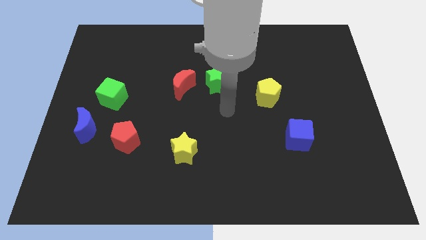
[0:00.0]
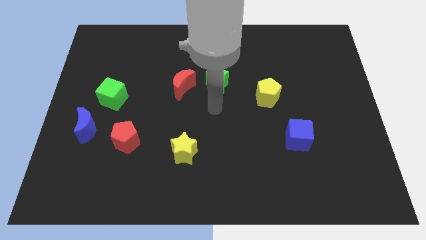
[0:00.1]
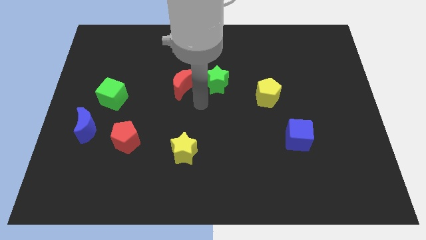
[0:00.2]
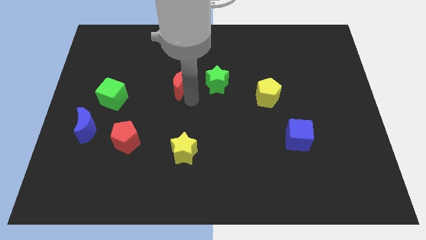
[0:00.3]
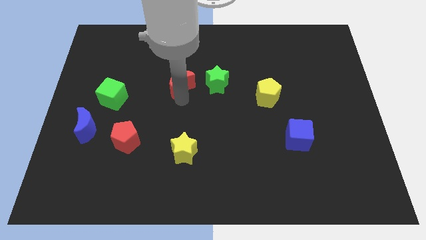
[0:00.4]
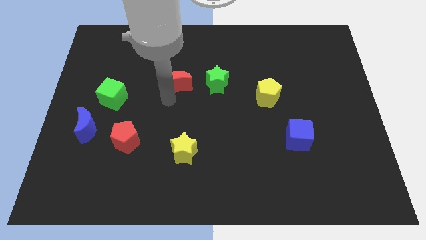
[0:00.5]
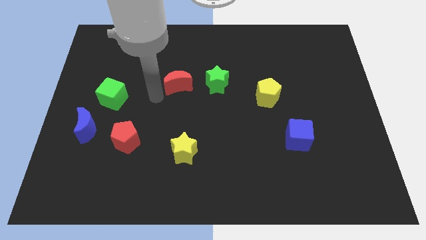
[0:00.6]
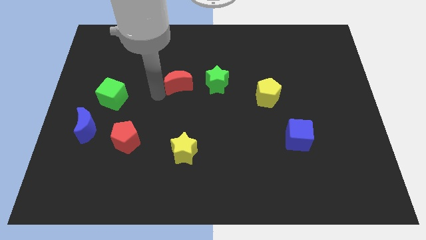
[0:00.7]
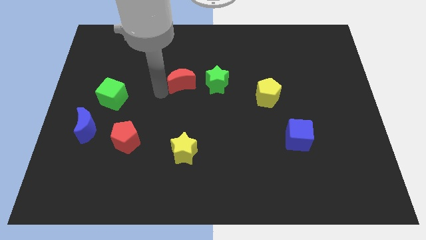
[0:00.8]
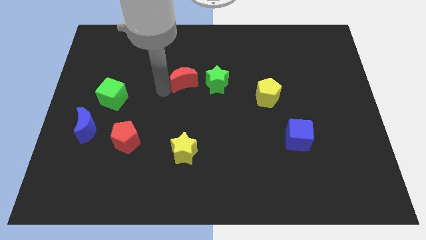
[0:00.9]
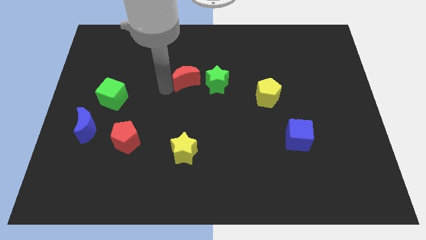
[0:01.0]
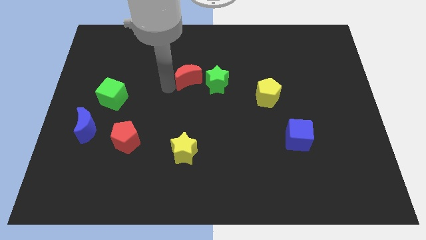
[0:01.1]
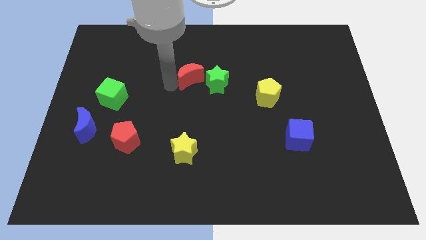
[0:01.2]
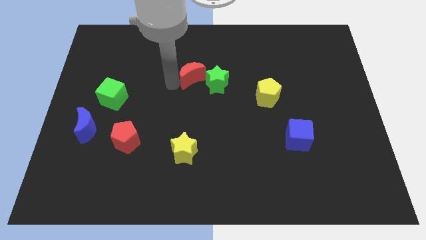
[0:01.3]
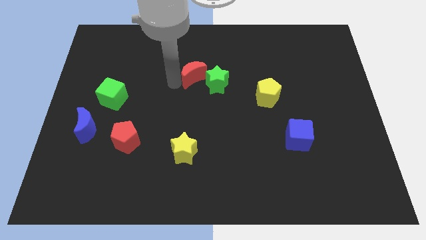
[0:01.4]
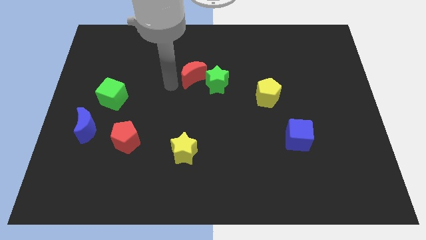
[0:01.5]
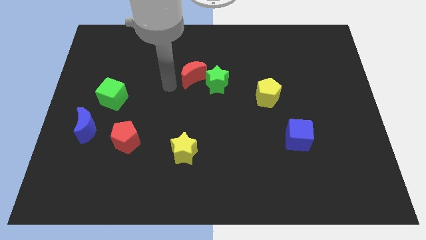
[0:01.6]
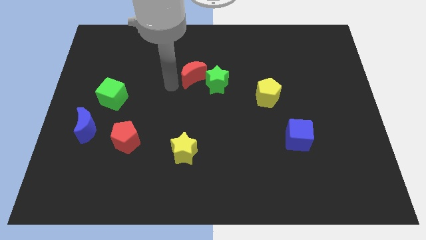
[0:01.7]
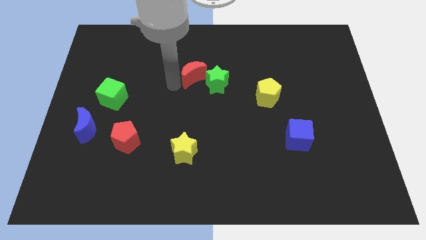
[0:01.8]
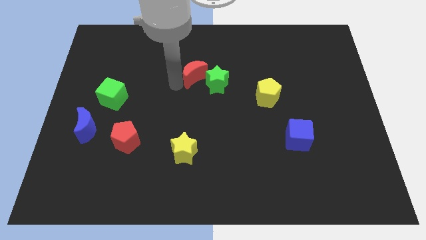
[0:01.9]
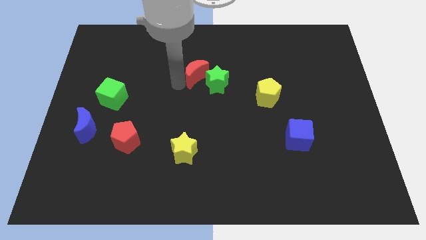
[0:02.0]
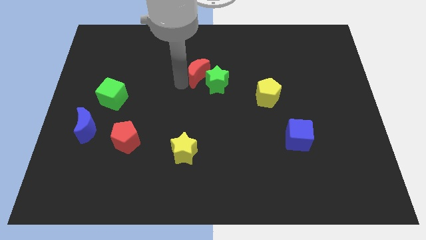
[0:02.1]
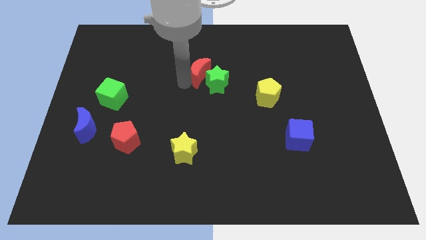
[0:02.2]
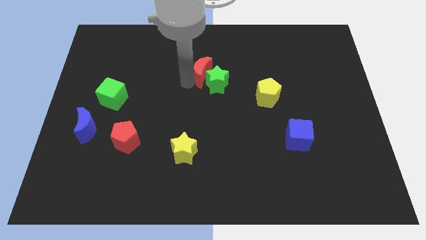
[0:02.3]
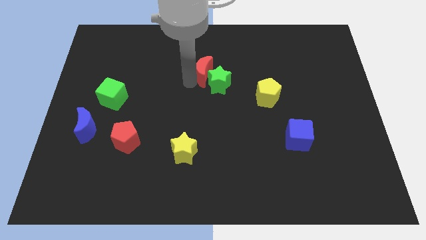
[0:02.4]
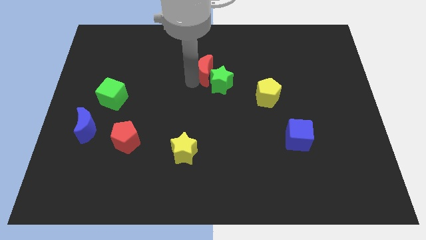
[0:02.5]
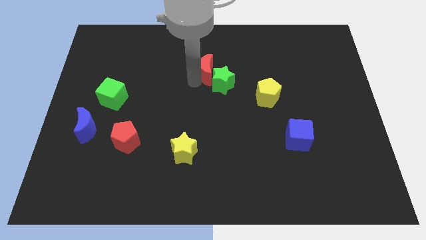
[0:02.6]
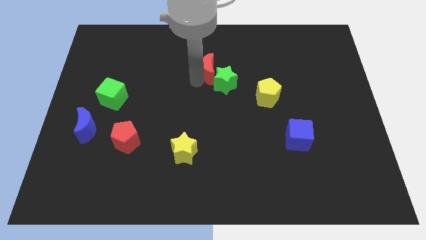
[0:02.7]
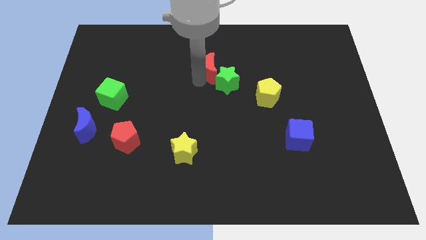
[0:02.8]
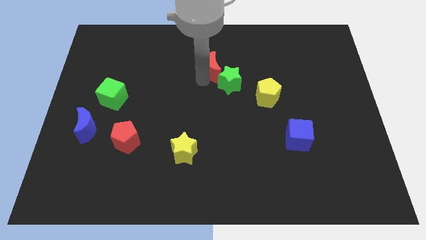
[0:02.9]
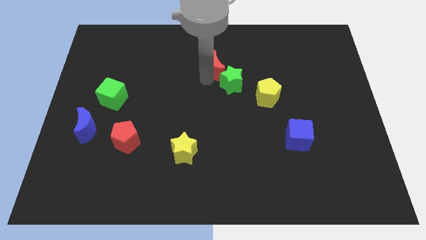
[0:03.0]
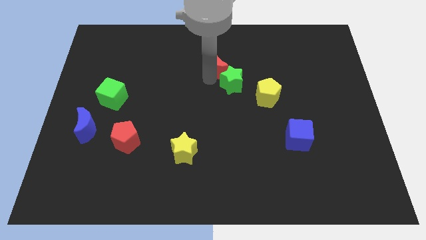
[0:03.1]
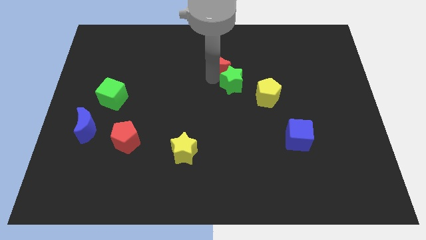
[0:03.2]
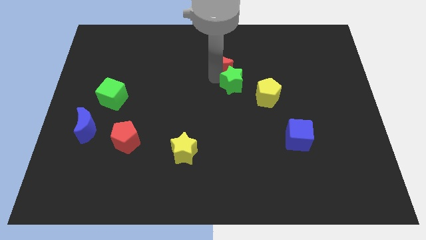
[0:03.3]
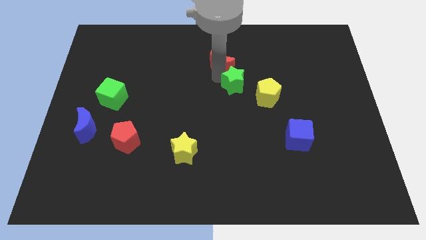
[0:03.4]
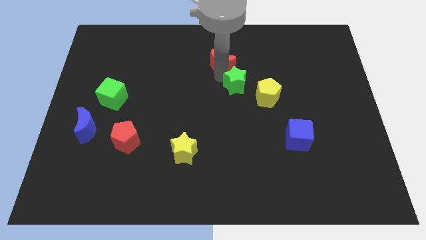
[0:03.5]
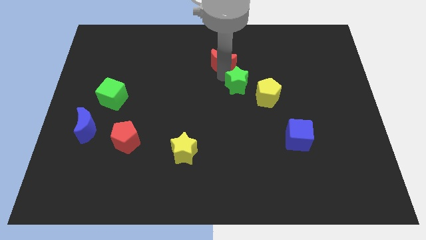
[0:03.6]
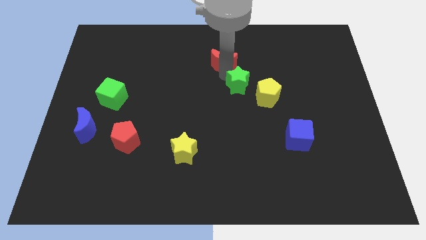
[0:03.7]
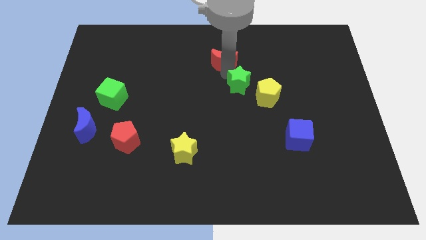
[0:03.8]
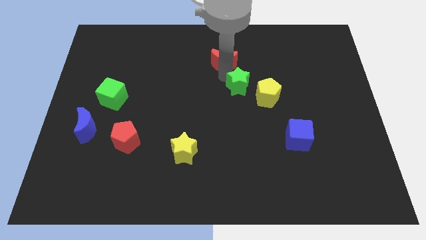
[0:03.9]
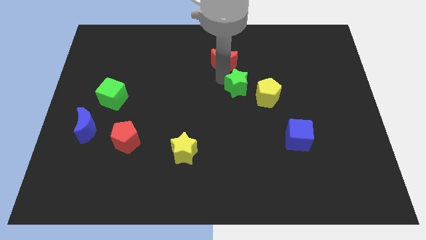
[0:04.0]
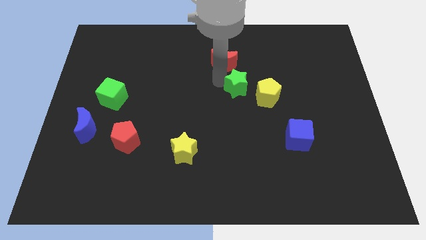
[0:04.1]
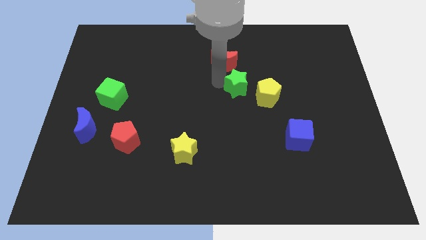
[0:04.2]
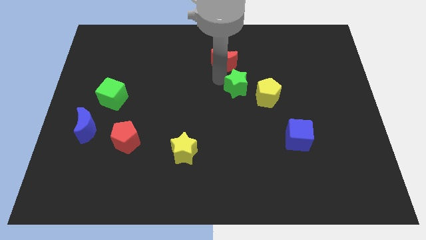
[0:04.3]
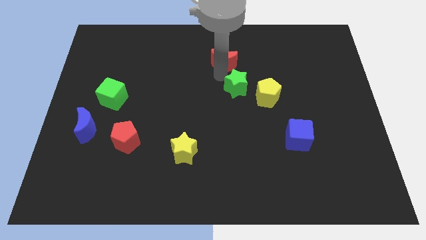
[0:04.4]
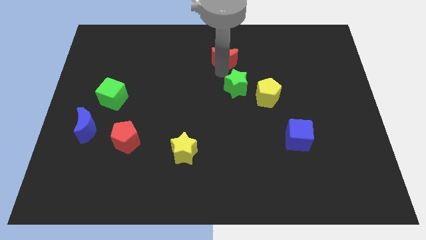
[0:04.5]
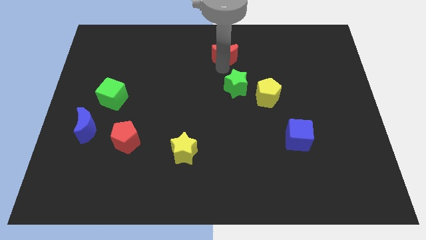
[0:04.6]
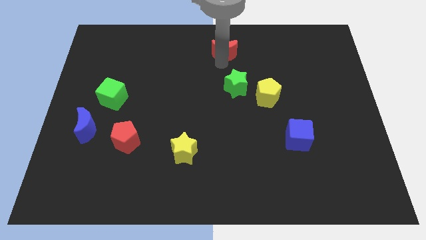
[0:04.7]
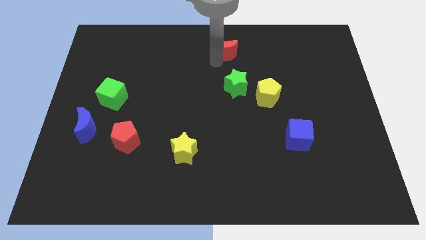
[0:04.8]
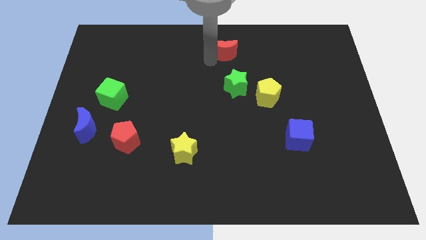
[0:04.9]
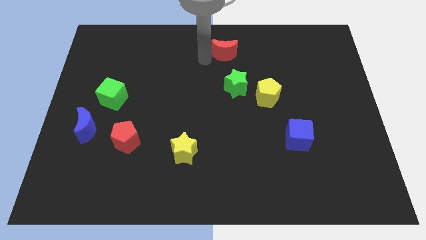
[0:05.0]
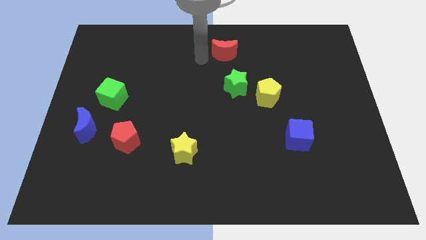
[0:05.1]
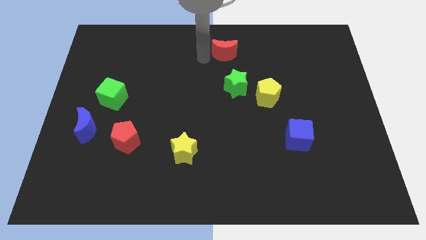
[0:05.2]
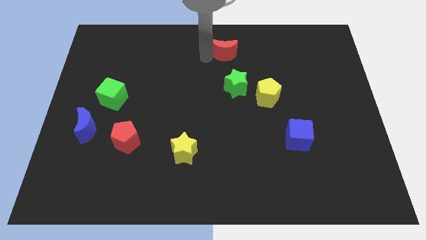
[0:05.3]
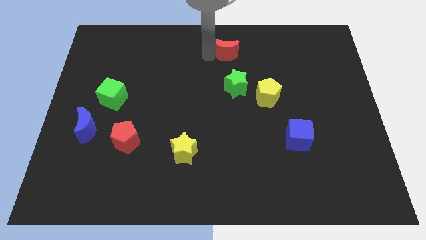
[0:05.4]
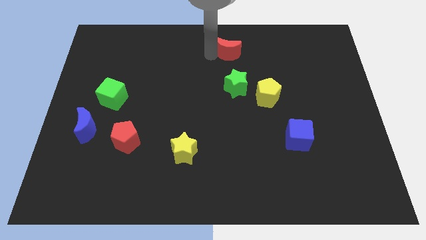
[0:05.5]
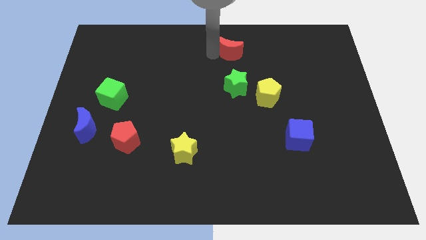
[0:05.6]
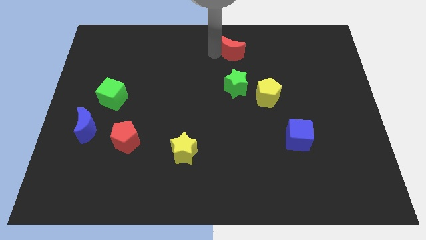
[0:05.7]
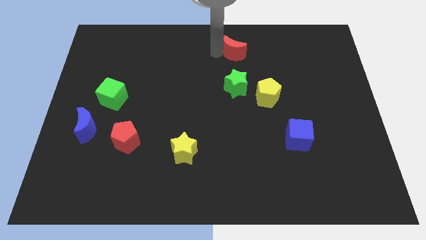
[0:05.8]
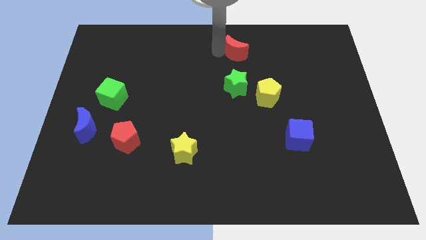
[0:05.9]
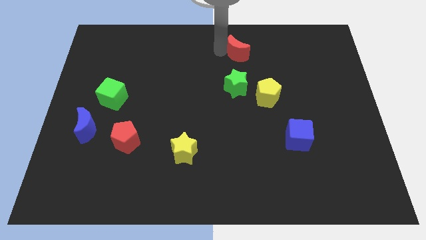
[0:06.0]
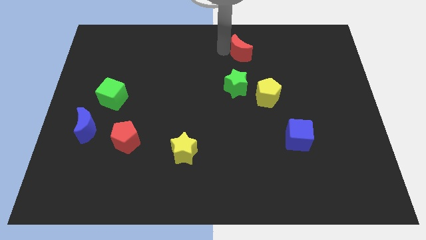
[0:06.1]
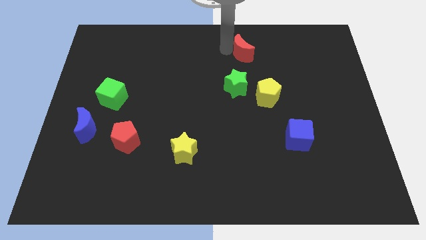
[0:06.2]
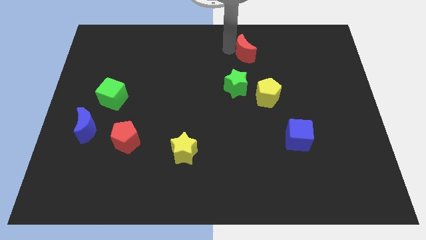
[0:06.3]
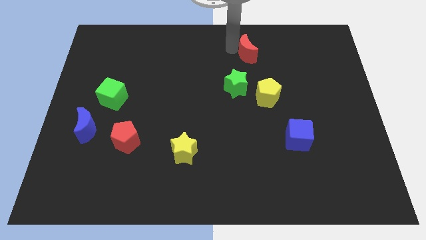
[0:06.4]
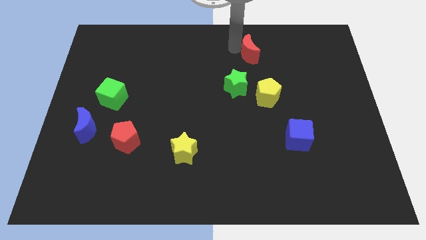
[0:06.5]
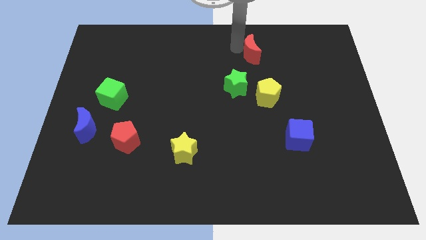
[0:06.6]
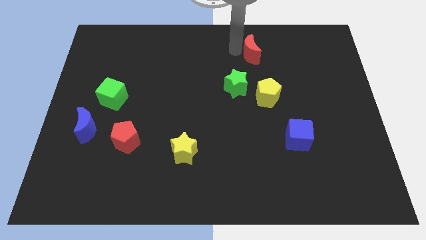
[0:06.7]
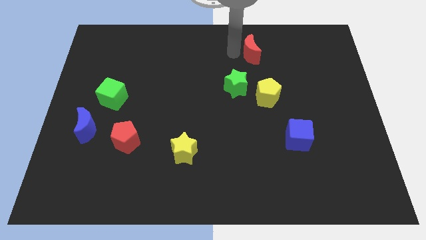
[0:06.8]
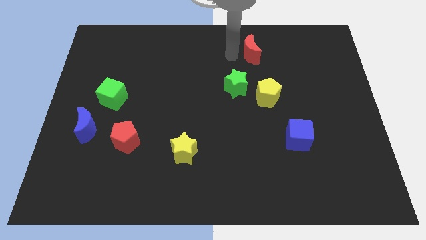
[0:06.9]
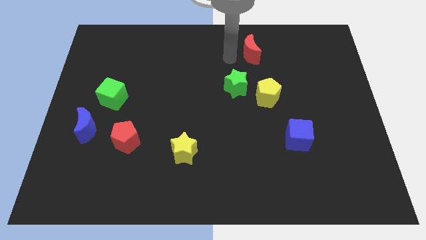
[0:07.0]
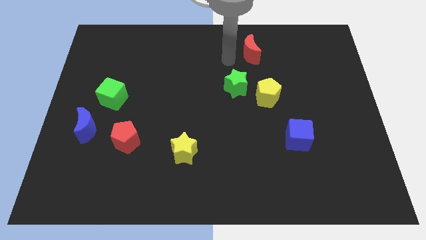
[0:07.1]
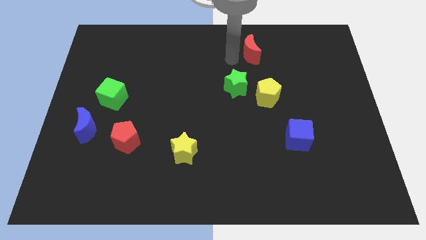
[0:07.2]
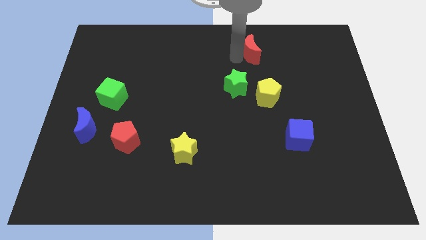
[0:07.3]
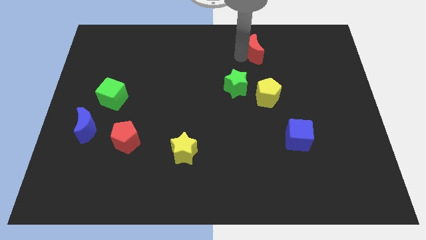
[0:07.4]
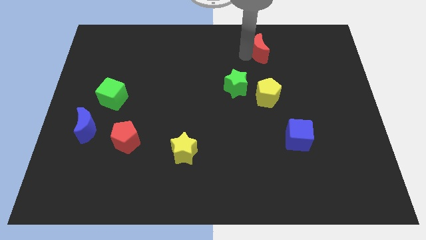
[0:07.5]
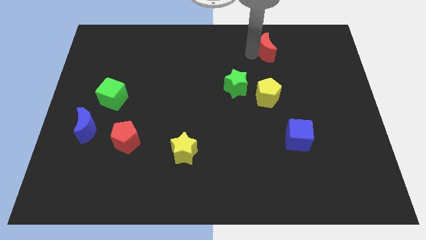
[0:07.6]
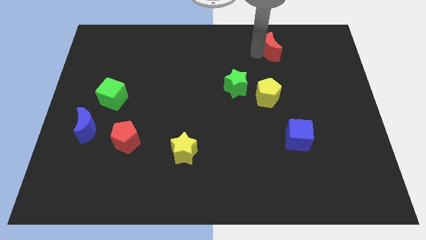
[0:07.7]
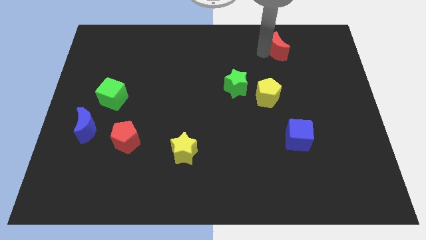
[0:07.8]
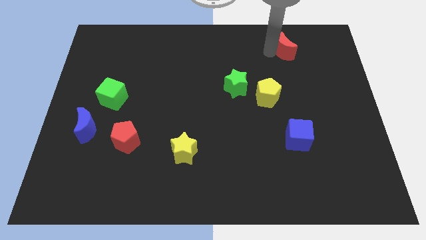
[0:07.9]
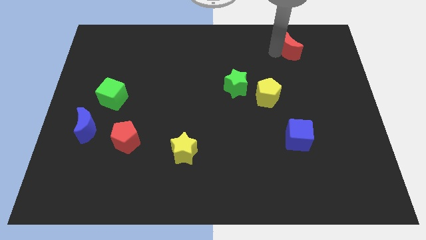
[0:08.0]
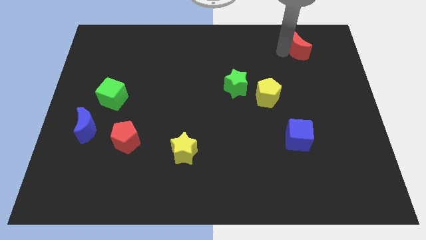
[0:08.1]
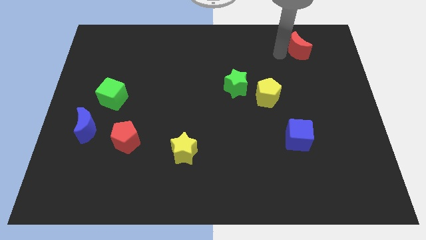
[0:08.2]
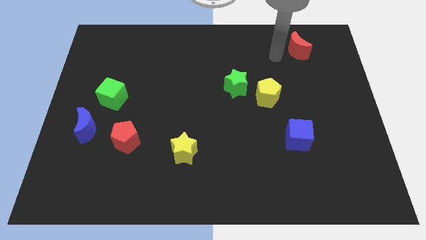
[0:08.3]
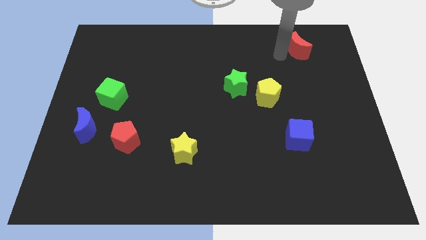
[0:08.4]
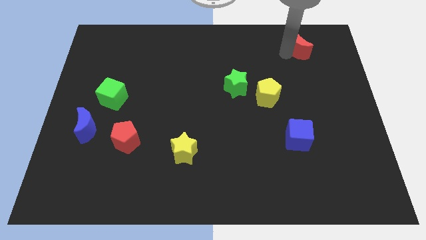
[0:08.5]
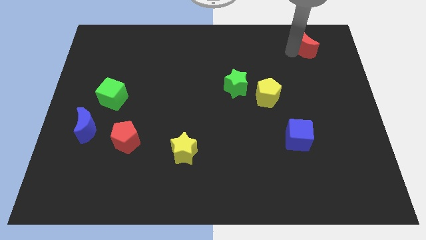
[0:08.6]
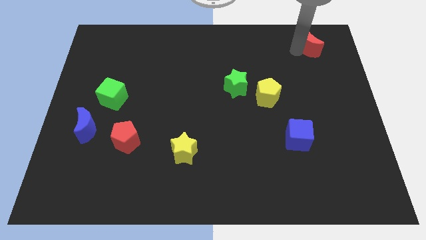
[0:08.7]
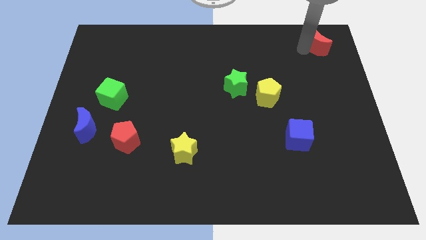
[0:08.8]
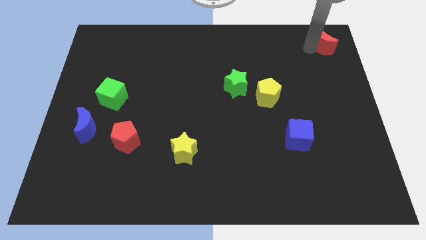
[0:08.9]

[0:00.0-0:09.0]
move the red moon to the top right
